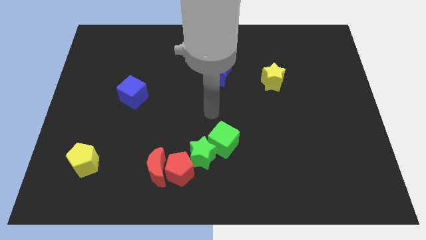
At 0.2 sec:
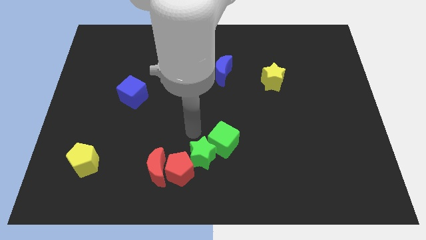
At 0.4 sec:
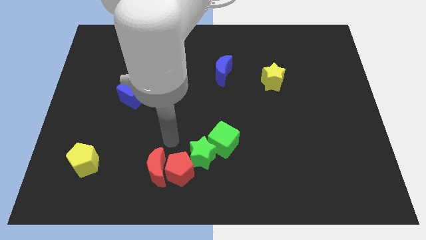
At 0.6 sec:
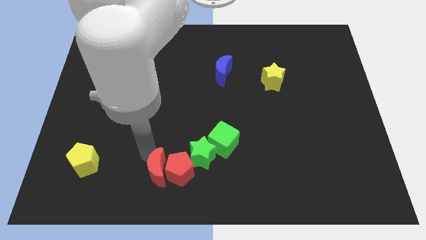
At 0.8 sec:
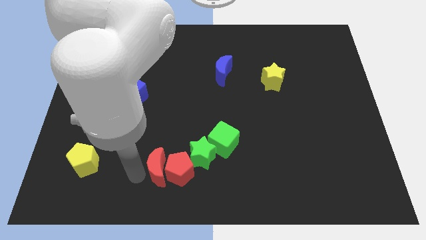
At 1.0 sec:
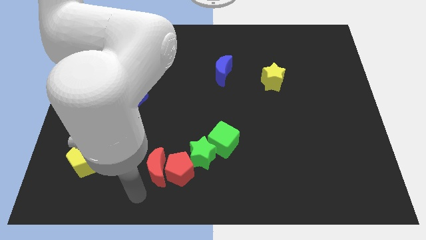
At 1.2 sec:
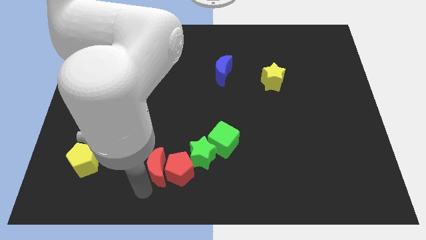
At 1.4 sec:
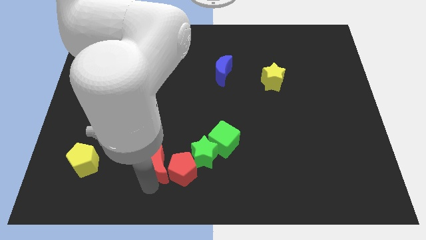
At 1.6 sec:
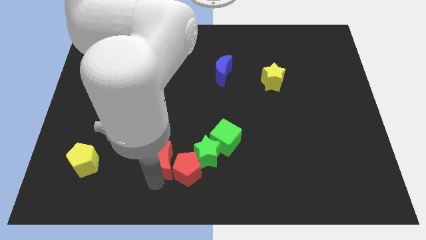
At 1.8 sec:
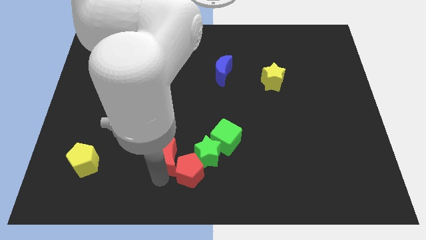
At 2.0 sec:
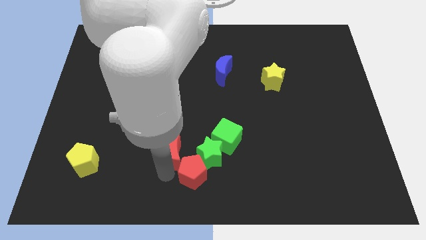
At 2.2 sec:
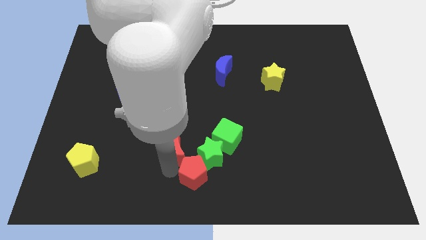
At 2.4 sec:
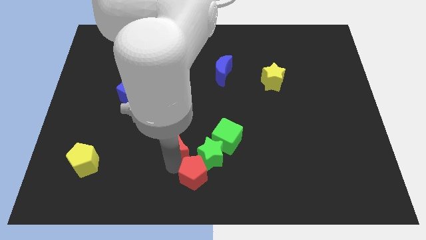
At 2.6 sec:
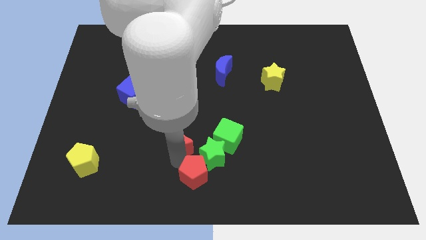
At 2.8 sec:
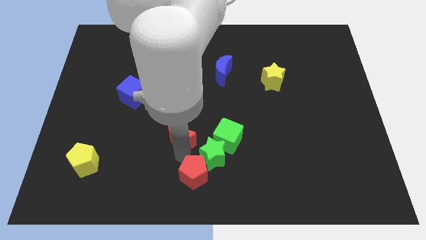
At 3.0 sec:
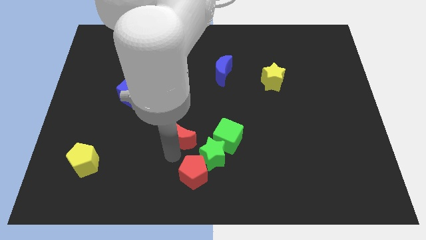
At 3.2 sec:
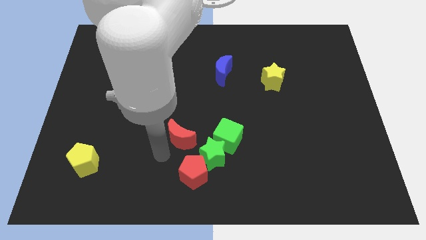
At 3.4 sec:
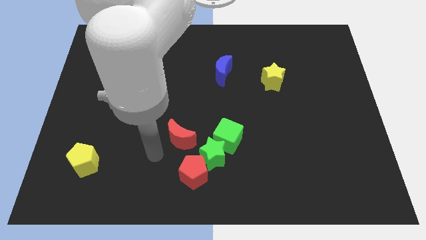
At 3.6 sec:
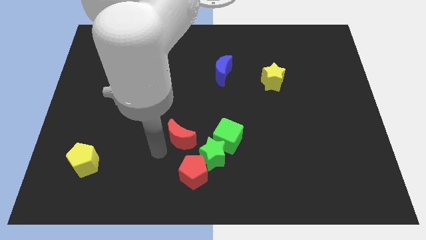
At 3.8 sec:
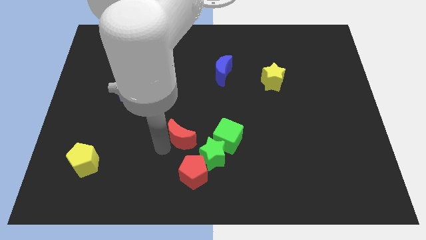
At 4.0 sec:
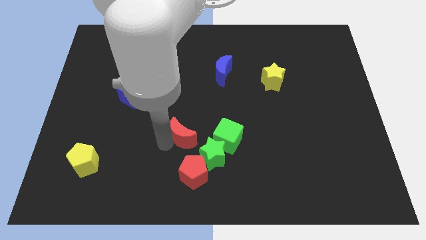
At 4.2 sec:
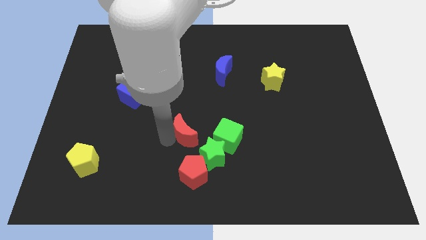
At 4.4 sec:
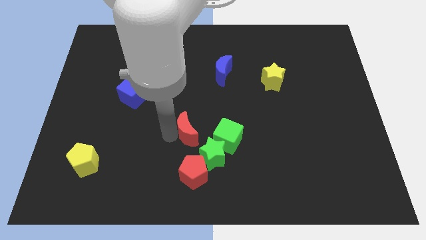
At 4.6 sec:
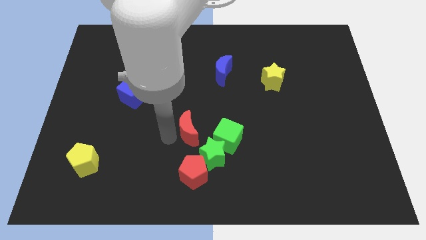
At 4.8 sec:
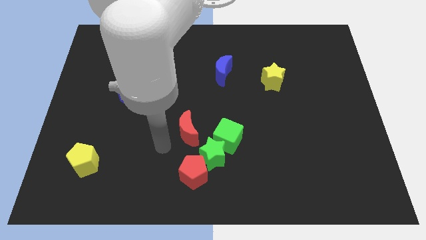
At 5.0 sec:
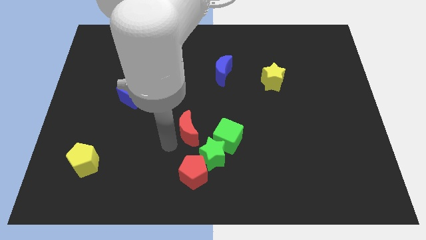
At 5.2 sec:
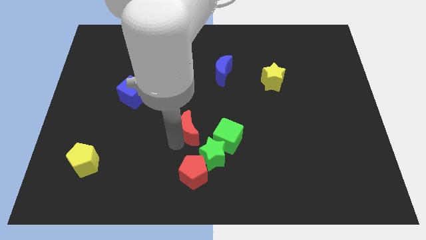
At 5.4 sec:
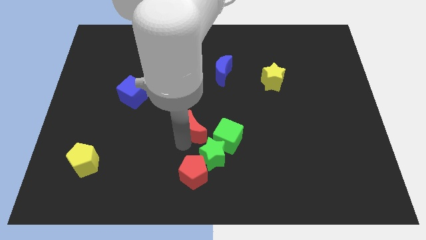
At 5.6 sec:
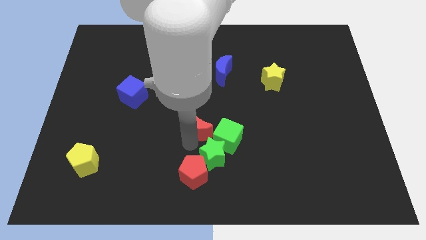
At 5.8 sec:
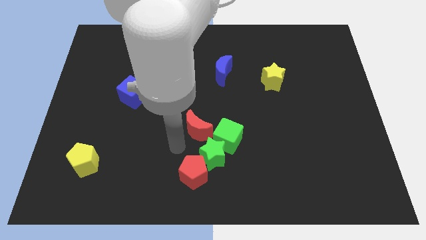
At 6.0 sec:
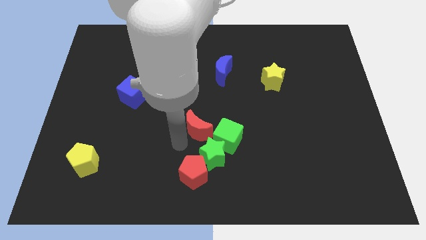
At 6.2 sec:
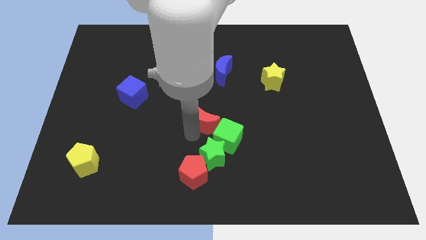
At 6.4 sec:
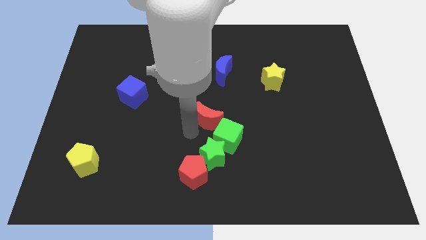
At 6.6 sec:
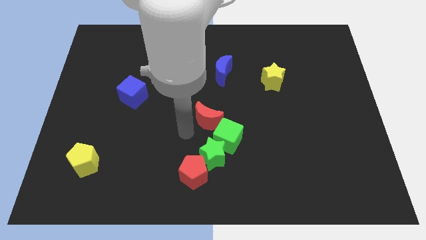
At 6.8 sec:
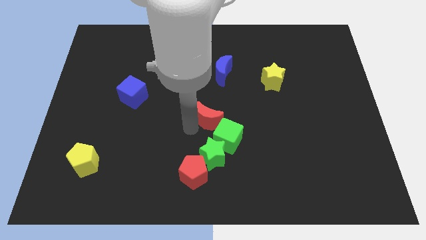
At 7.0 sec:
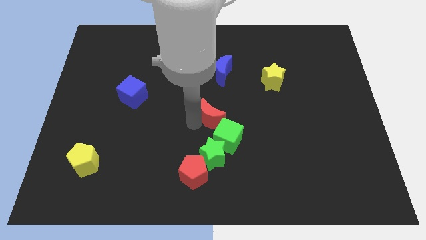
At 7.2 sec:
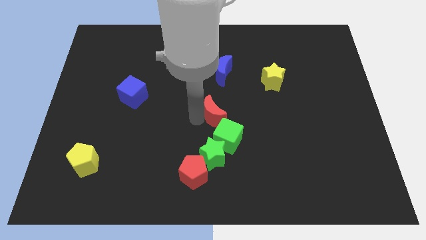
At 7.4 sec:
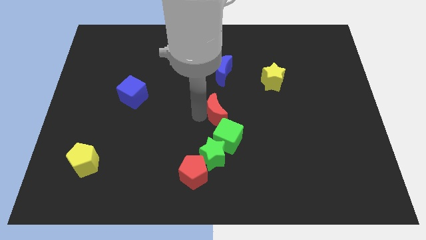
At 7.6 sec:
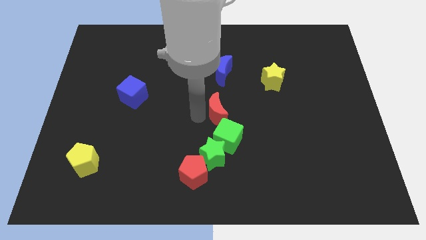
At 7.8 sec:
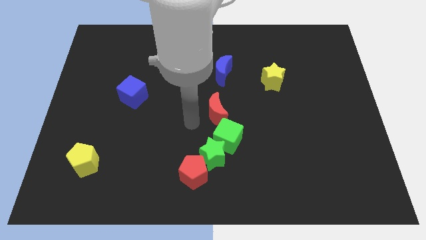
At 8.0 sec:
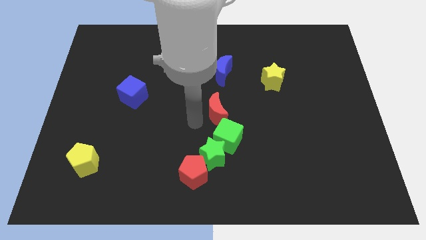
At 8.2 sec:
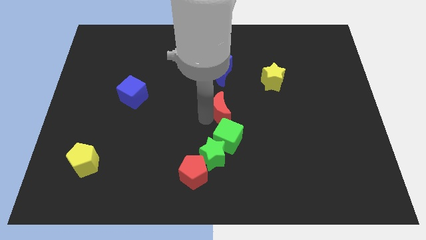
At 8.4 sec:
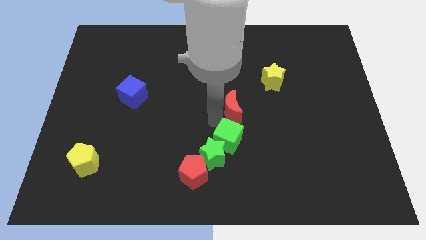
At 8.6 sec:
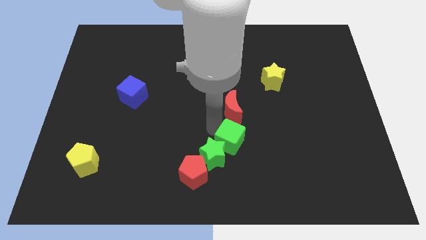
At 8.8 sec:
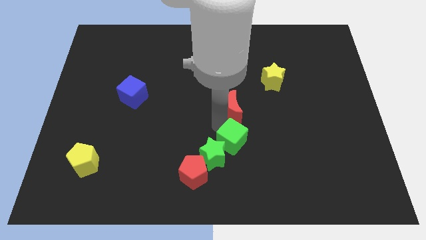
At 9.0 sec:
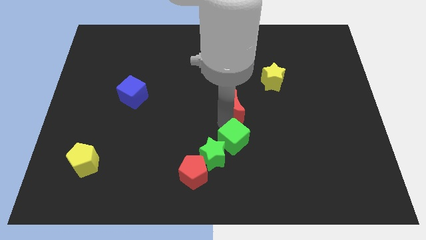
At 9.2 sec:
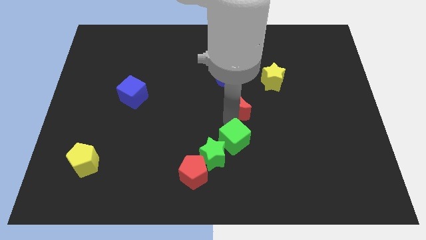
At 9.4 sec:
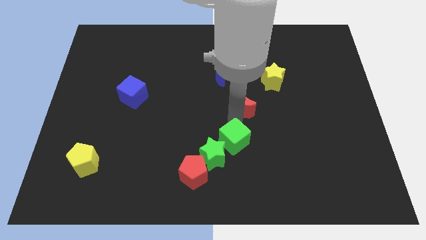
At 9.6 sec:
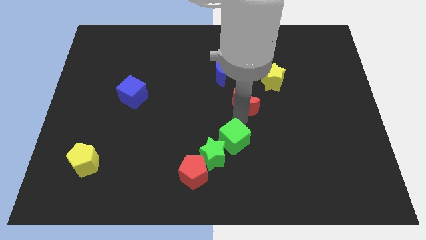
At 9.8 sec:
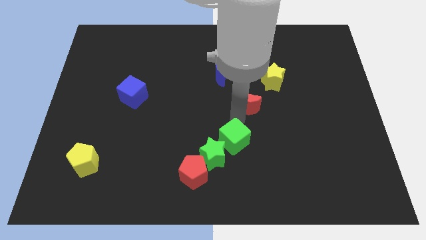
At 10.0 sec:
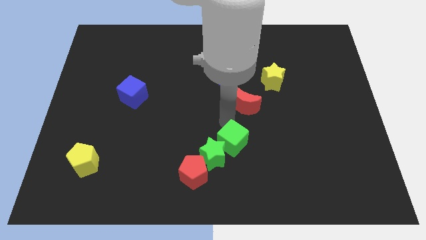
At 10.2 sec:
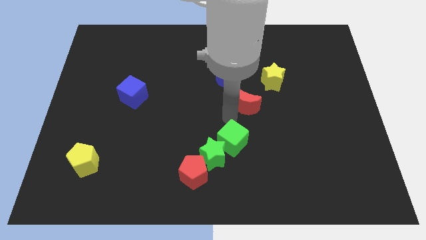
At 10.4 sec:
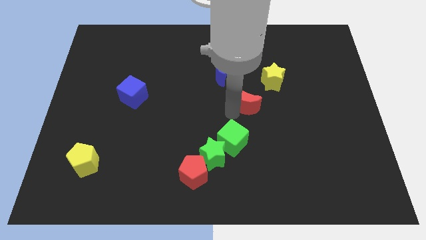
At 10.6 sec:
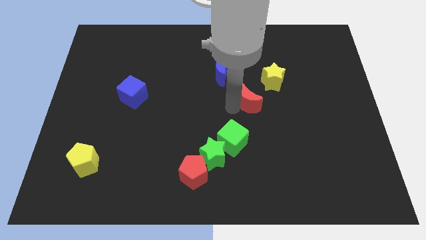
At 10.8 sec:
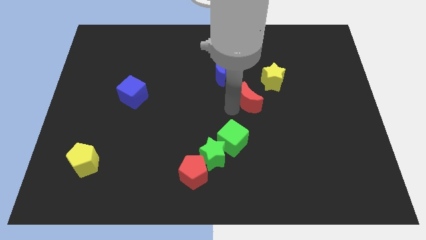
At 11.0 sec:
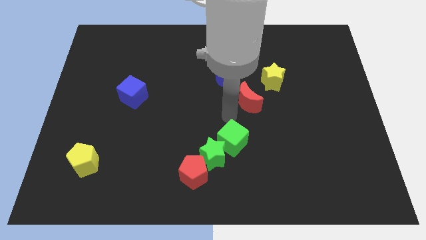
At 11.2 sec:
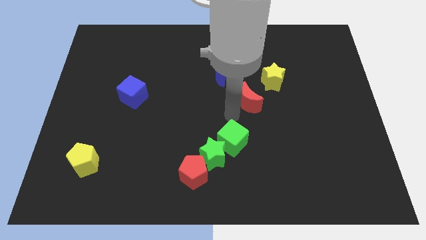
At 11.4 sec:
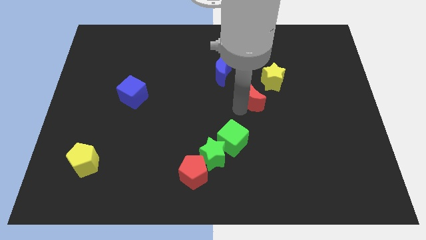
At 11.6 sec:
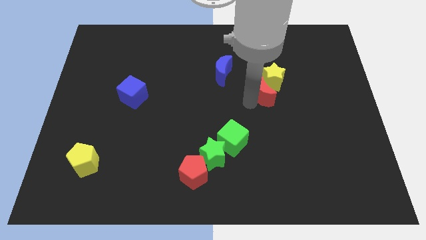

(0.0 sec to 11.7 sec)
move the red moon to the yellow star

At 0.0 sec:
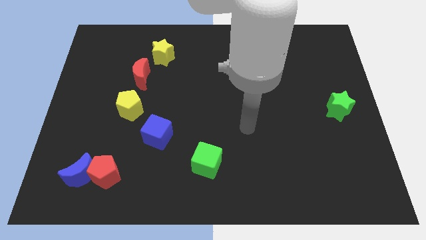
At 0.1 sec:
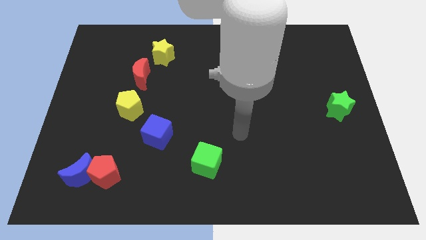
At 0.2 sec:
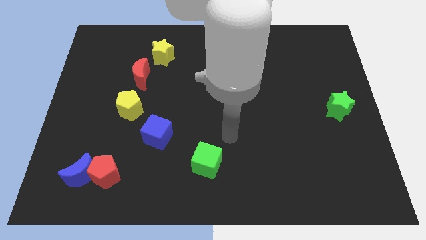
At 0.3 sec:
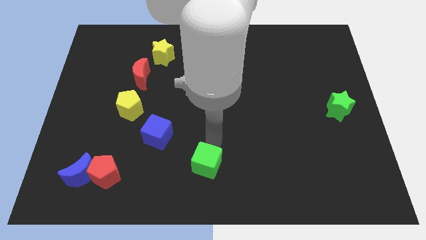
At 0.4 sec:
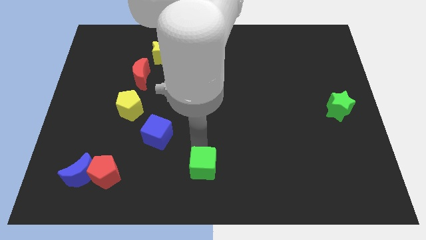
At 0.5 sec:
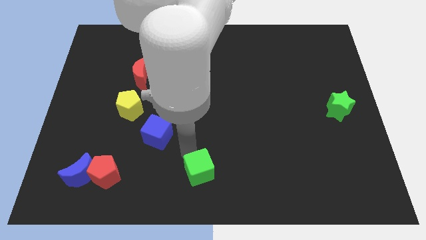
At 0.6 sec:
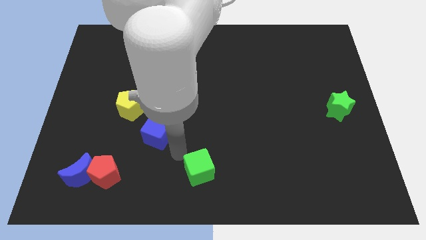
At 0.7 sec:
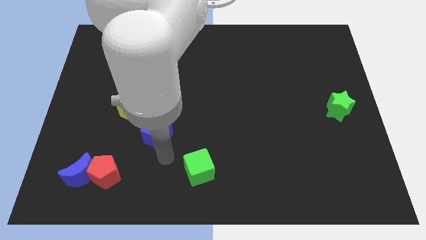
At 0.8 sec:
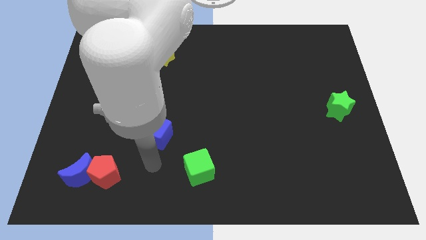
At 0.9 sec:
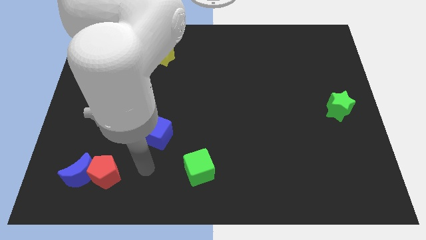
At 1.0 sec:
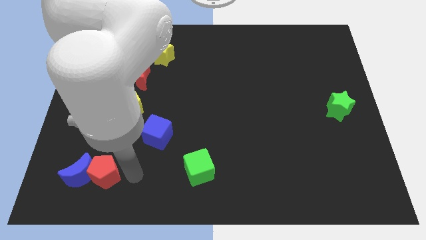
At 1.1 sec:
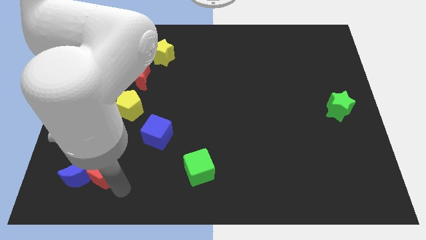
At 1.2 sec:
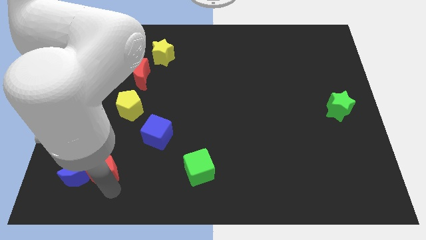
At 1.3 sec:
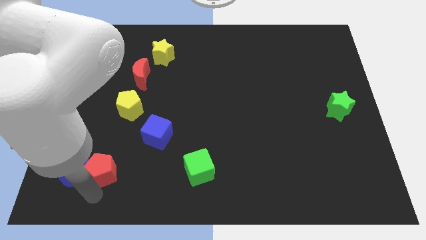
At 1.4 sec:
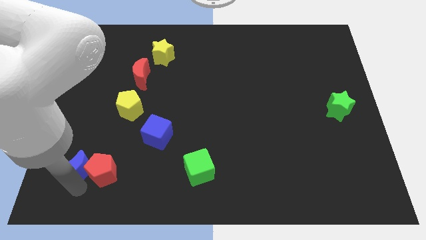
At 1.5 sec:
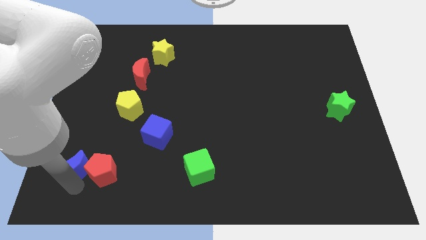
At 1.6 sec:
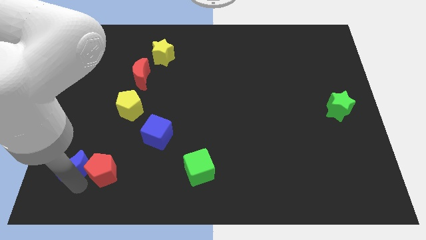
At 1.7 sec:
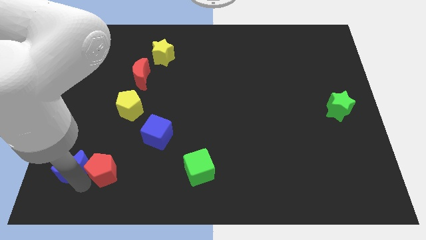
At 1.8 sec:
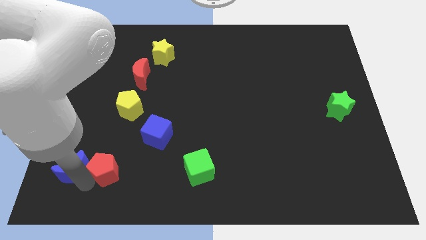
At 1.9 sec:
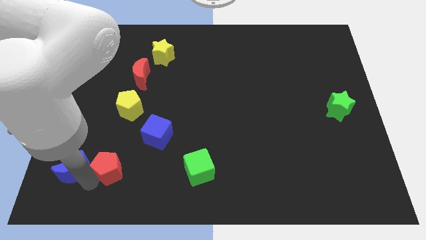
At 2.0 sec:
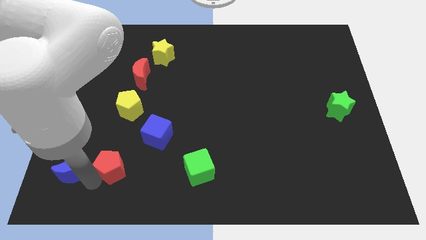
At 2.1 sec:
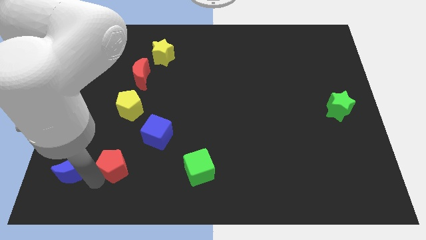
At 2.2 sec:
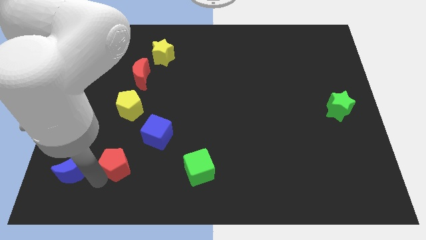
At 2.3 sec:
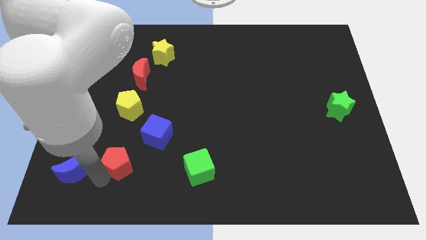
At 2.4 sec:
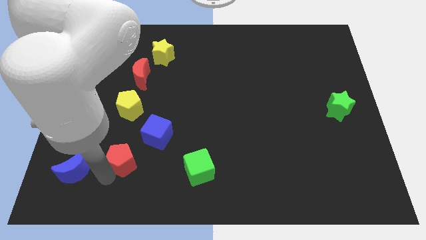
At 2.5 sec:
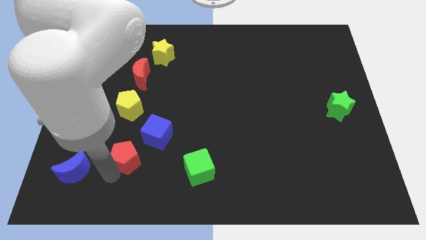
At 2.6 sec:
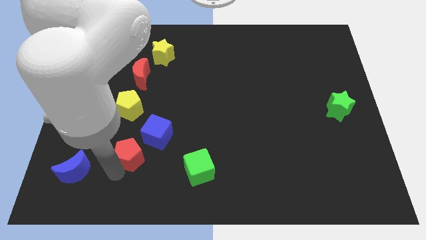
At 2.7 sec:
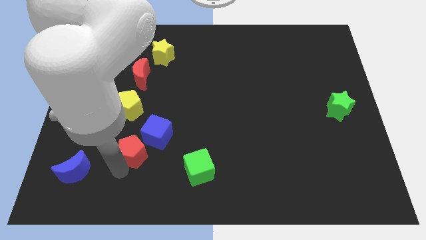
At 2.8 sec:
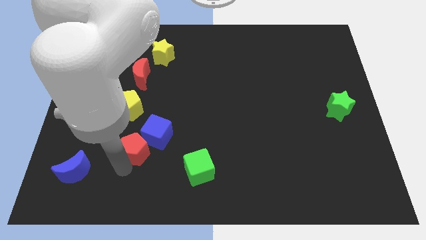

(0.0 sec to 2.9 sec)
slide the red pentagon next to the blue cube
